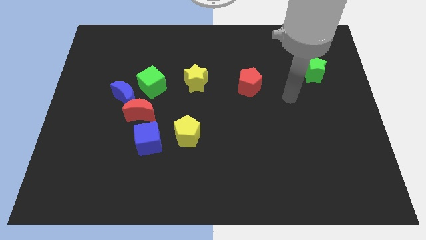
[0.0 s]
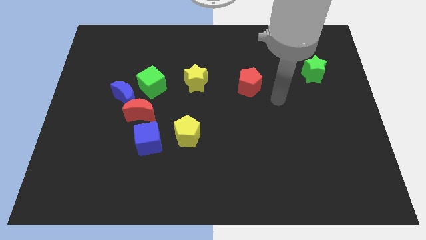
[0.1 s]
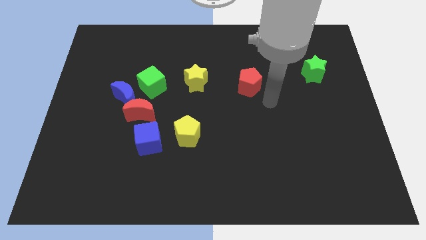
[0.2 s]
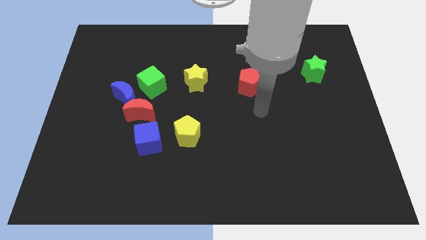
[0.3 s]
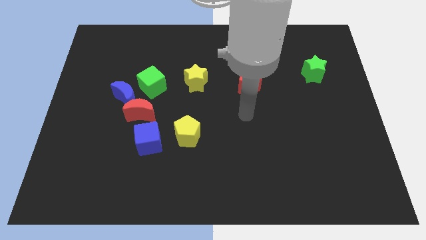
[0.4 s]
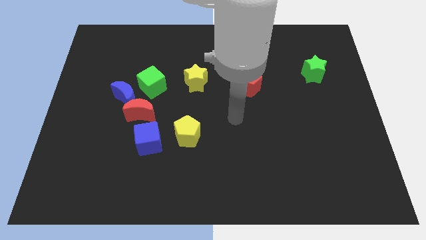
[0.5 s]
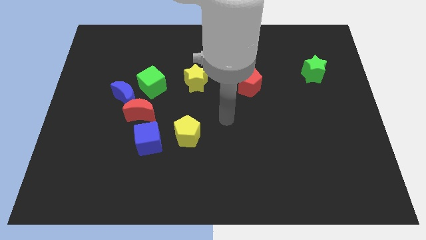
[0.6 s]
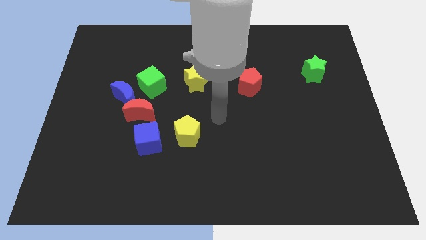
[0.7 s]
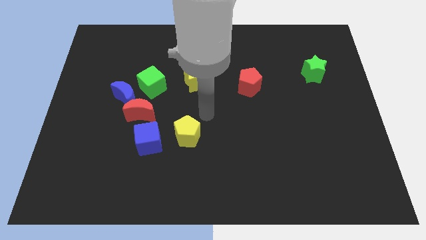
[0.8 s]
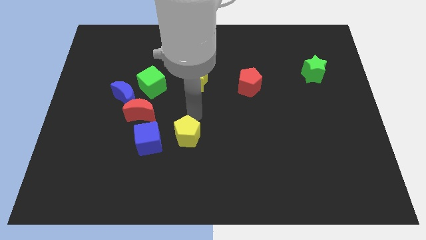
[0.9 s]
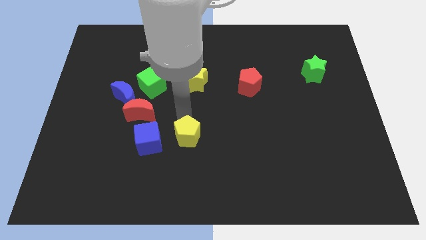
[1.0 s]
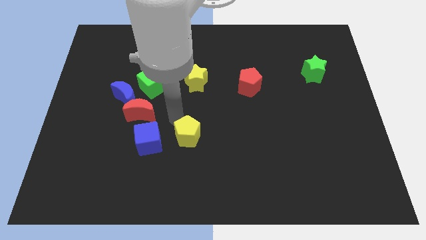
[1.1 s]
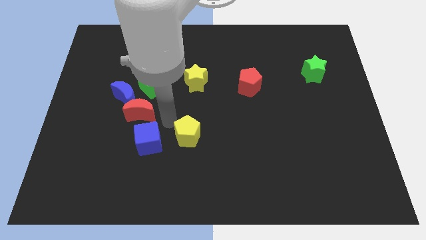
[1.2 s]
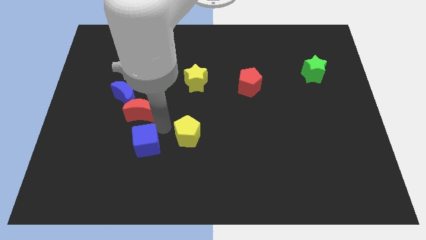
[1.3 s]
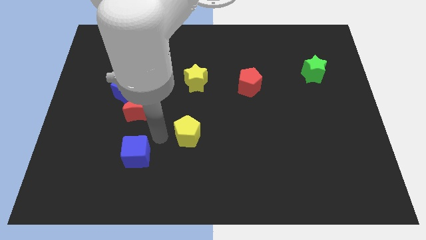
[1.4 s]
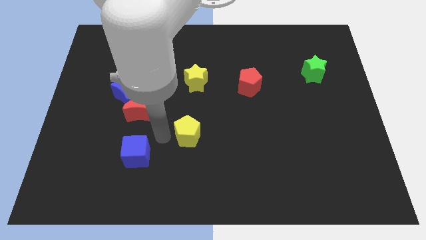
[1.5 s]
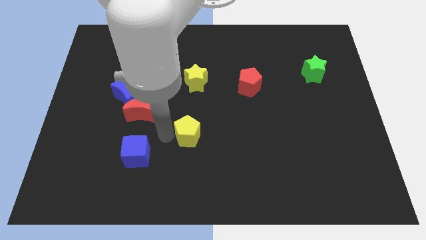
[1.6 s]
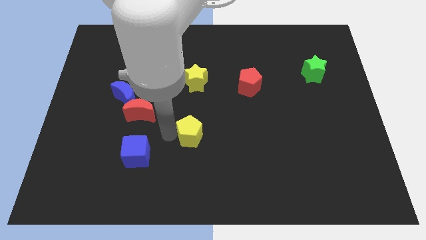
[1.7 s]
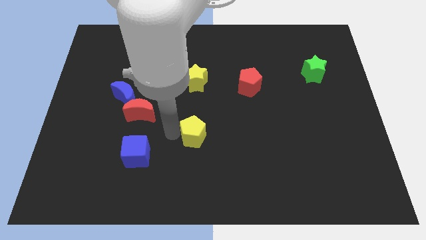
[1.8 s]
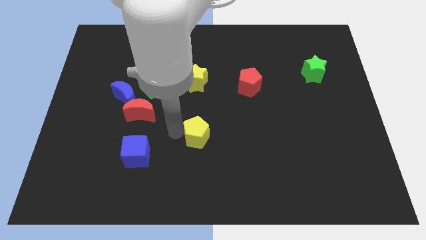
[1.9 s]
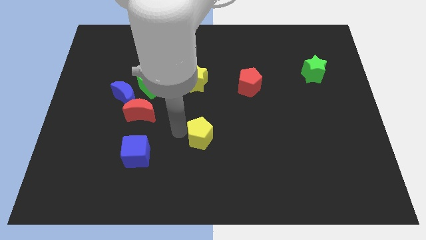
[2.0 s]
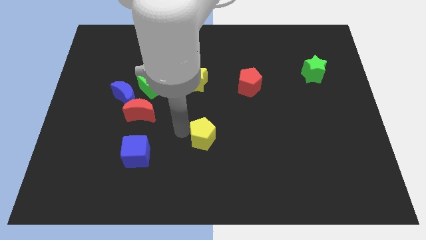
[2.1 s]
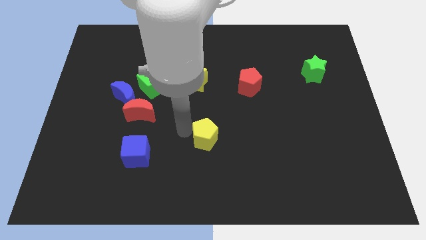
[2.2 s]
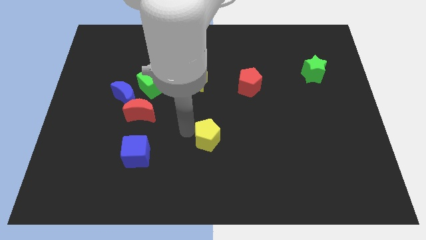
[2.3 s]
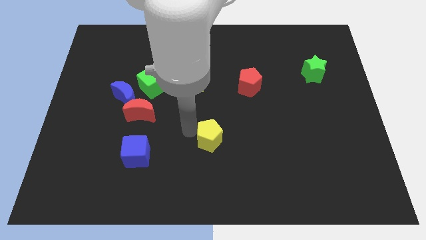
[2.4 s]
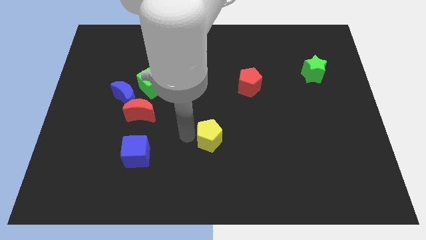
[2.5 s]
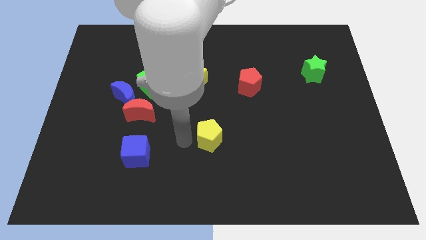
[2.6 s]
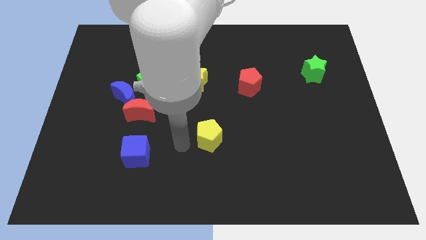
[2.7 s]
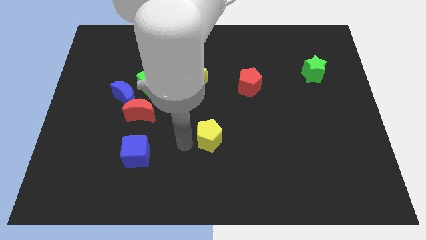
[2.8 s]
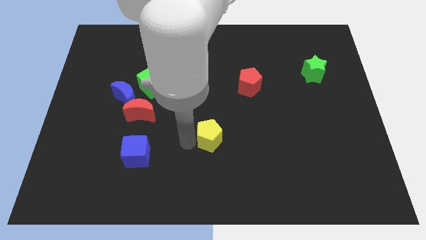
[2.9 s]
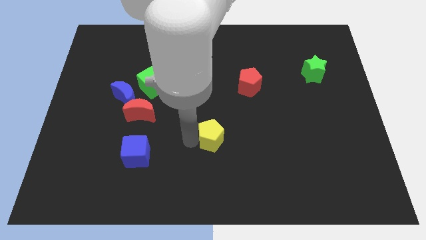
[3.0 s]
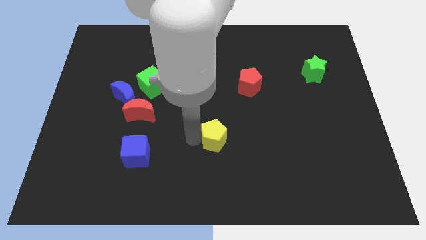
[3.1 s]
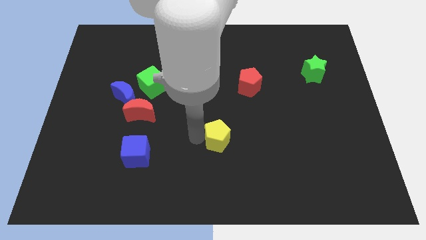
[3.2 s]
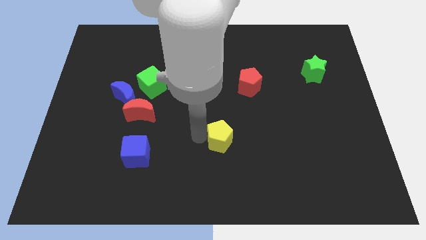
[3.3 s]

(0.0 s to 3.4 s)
slightly push the yellow pentagon right

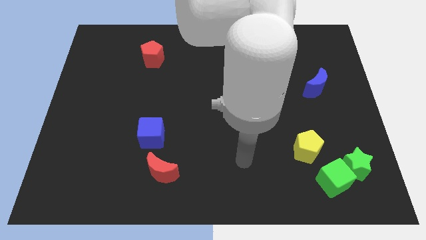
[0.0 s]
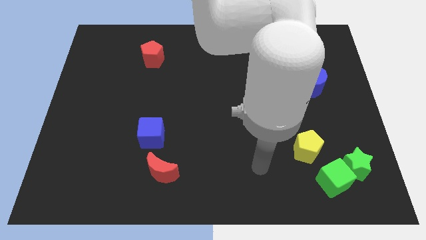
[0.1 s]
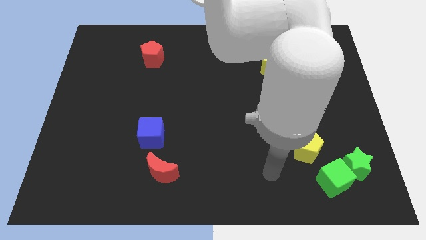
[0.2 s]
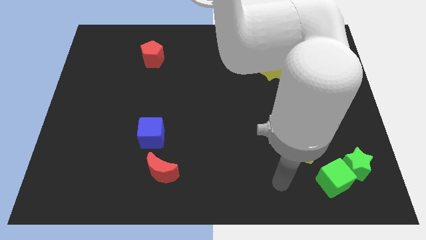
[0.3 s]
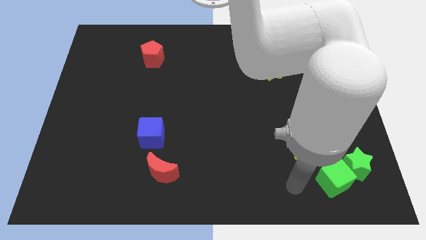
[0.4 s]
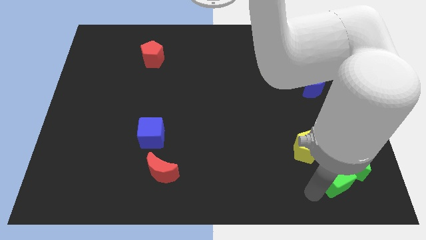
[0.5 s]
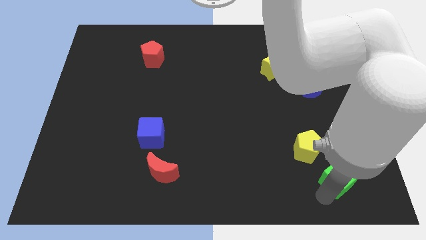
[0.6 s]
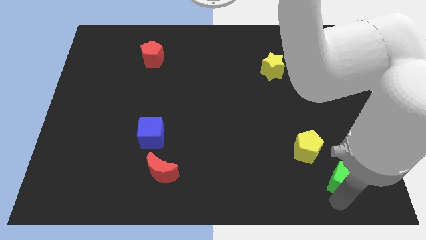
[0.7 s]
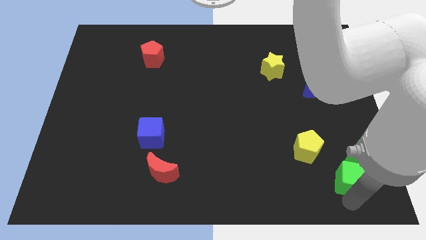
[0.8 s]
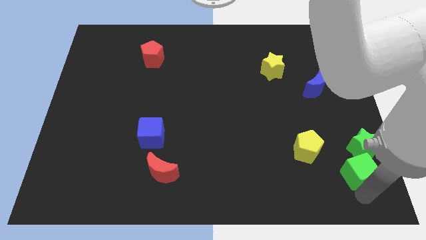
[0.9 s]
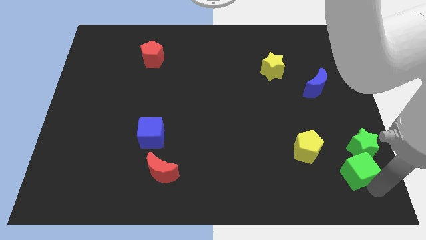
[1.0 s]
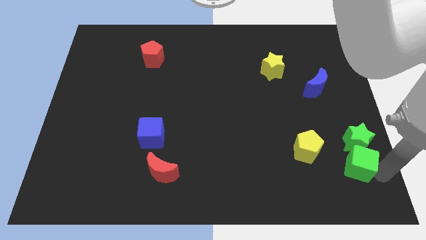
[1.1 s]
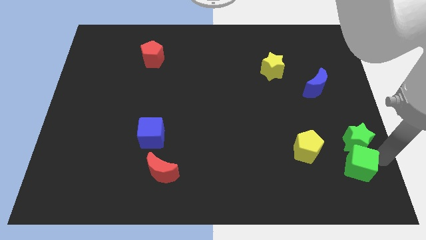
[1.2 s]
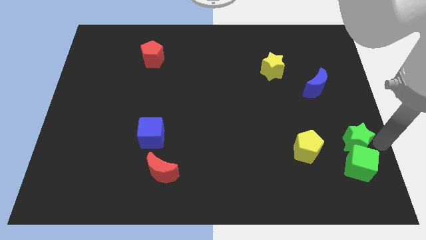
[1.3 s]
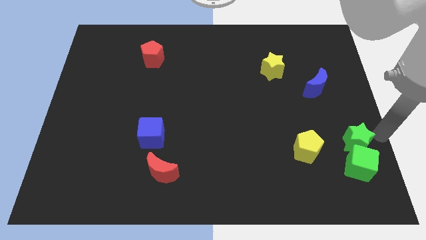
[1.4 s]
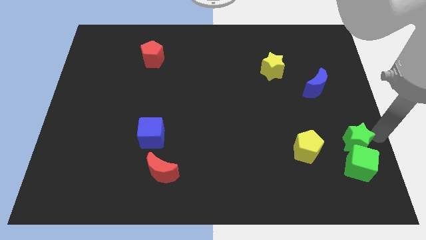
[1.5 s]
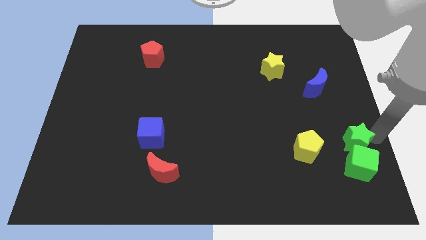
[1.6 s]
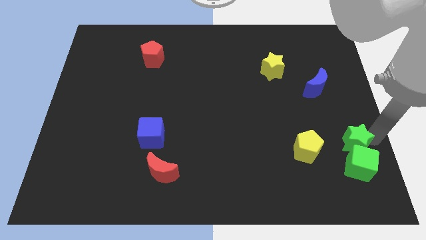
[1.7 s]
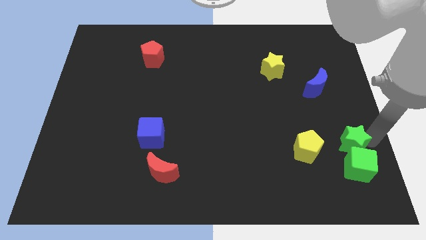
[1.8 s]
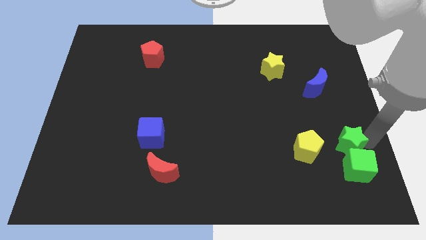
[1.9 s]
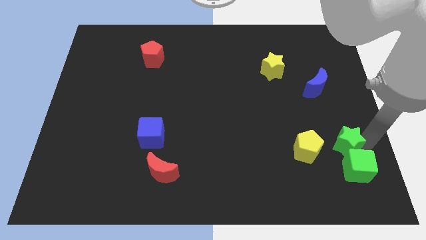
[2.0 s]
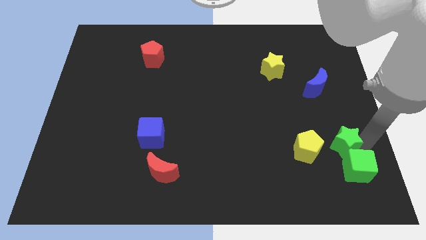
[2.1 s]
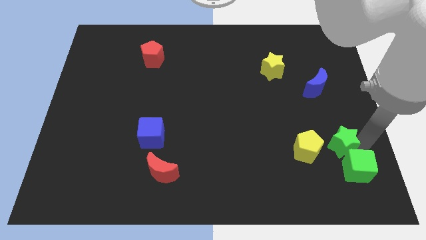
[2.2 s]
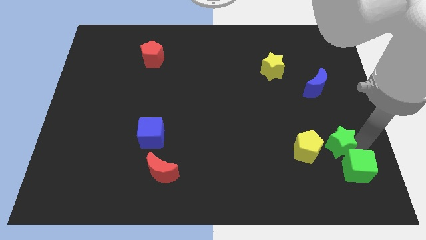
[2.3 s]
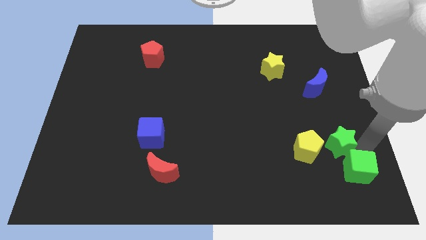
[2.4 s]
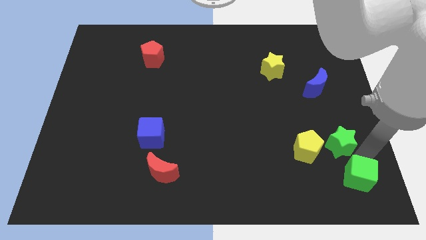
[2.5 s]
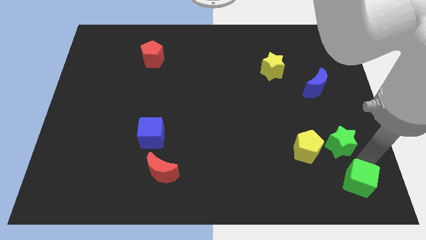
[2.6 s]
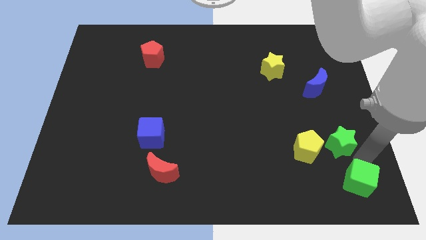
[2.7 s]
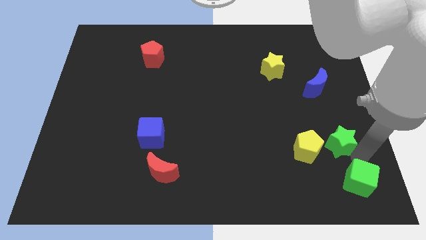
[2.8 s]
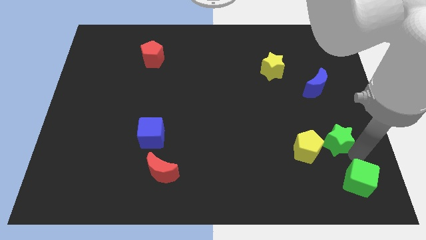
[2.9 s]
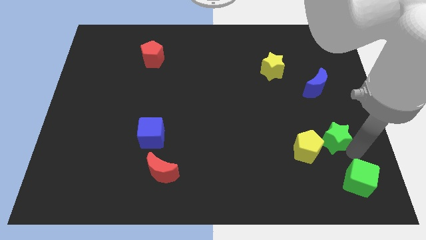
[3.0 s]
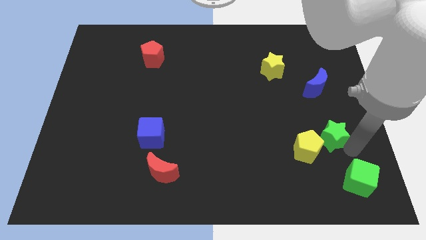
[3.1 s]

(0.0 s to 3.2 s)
slide the green star upwards and then left slightly

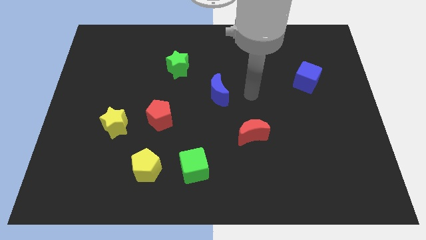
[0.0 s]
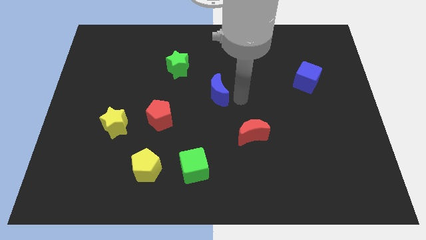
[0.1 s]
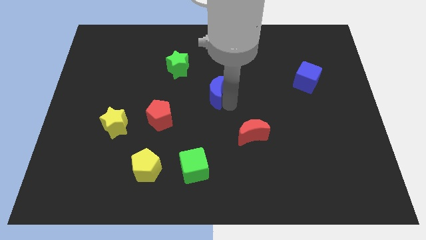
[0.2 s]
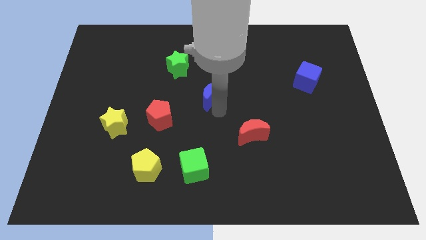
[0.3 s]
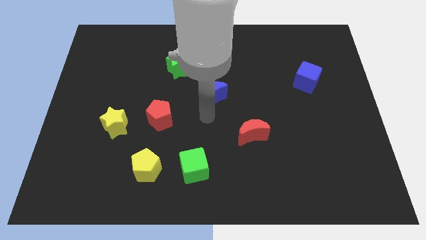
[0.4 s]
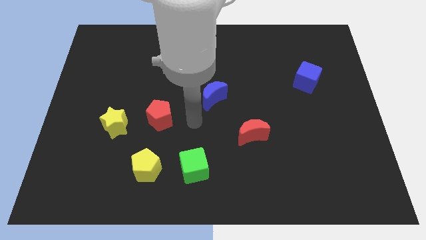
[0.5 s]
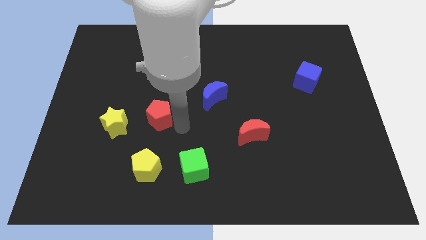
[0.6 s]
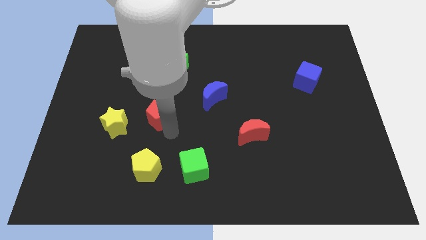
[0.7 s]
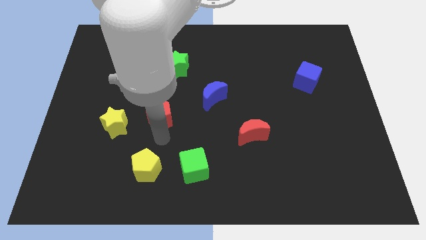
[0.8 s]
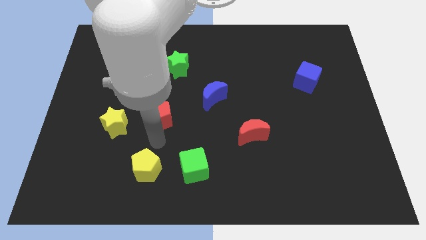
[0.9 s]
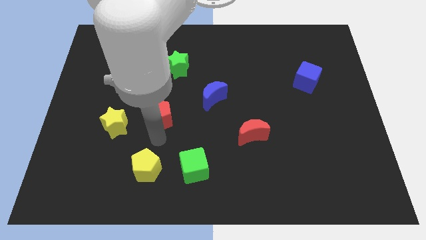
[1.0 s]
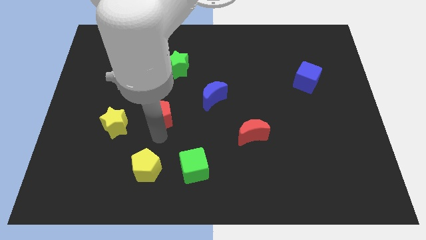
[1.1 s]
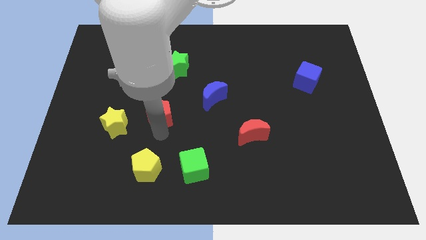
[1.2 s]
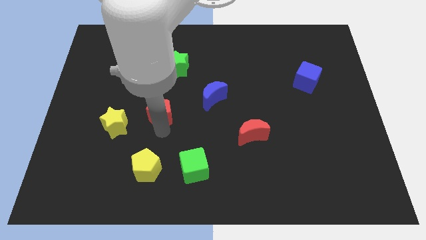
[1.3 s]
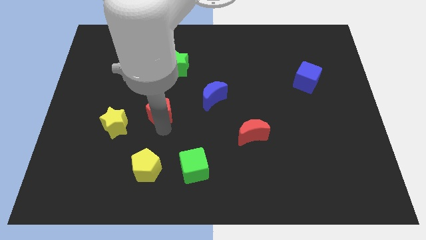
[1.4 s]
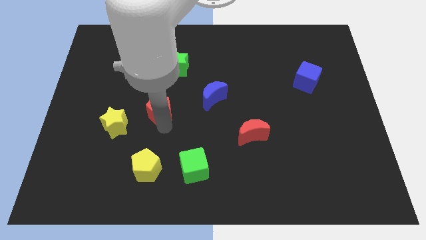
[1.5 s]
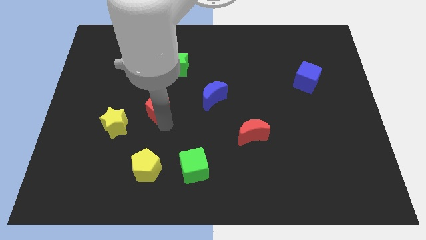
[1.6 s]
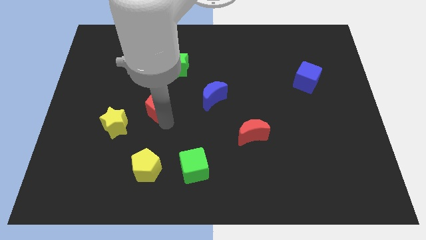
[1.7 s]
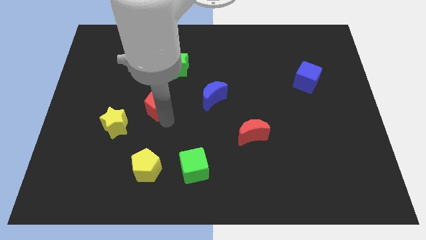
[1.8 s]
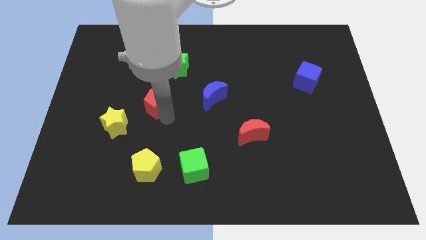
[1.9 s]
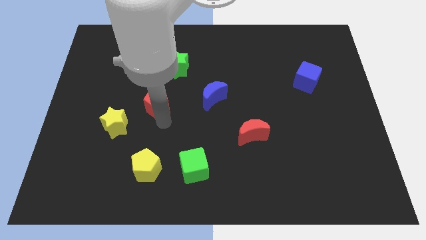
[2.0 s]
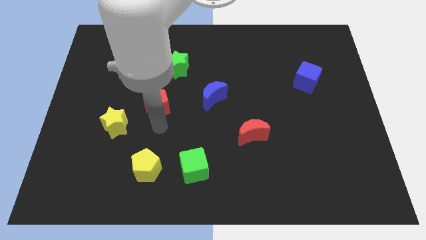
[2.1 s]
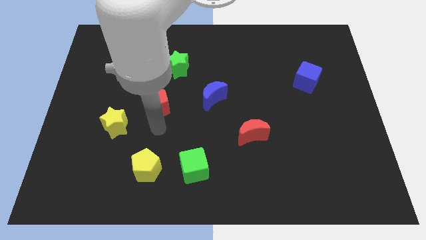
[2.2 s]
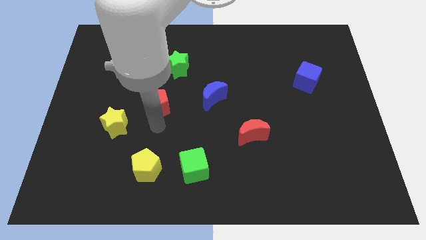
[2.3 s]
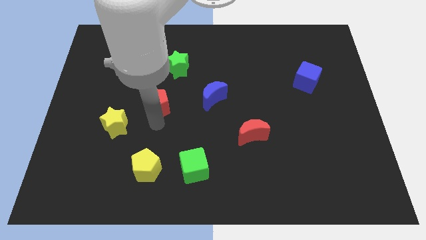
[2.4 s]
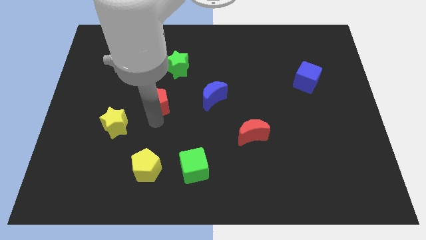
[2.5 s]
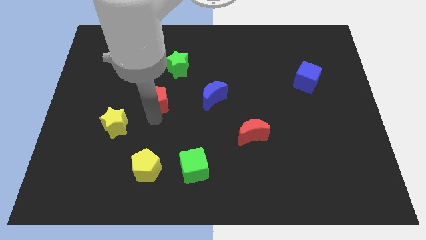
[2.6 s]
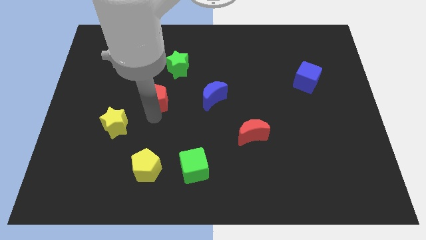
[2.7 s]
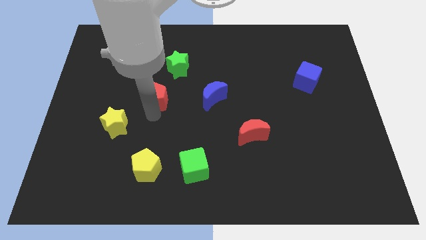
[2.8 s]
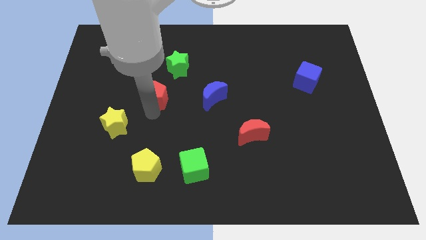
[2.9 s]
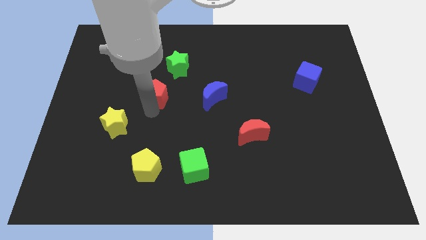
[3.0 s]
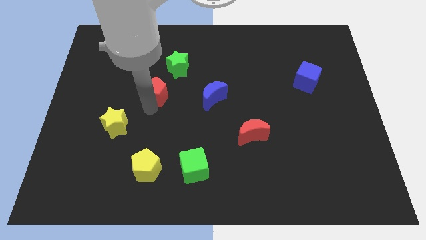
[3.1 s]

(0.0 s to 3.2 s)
slightly slide the red pentagon upwards
